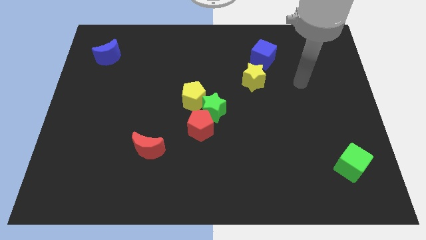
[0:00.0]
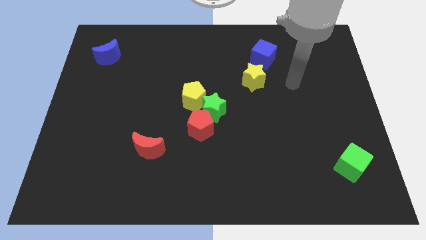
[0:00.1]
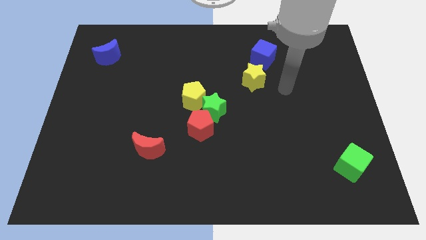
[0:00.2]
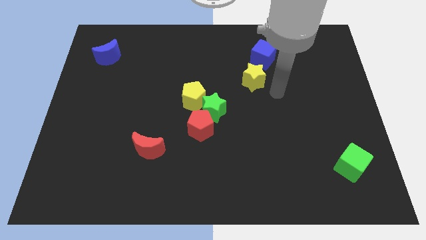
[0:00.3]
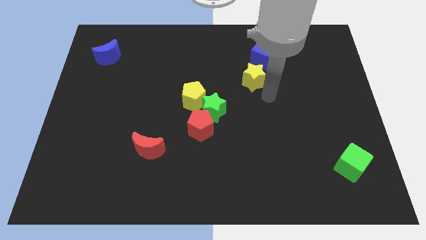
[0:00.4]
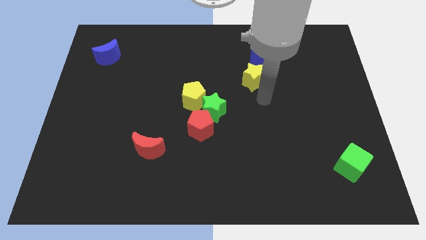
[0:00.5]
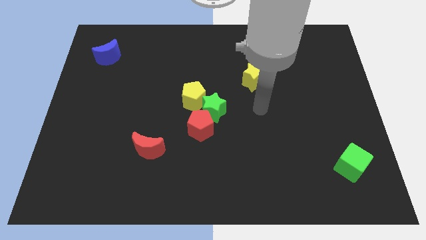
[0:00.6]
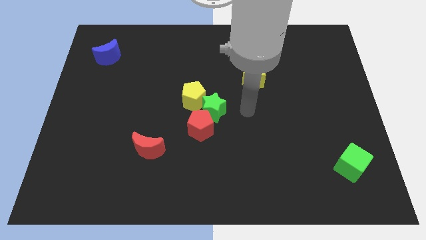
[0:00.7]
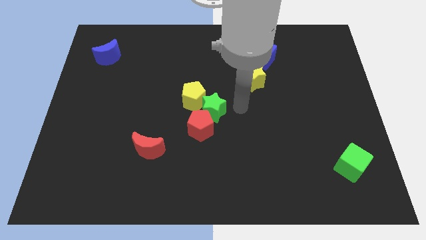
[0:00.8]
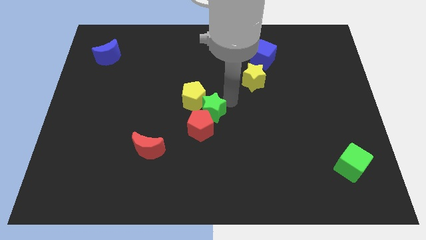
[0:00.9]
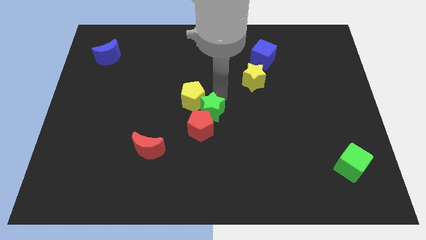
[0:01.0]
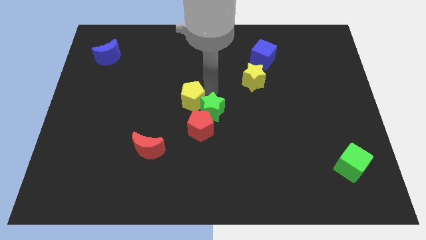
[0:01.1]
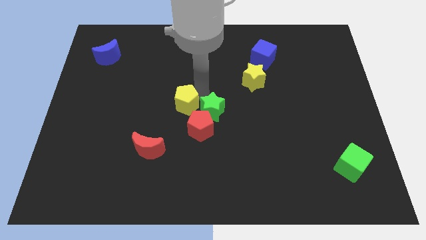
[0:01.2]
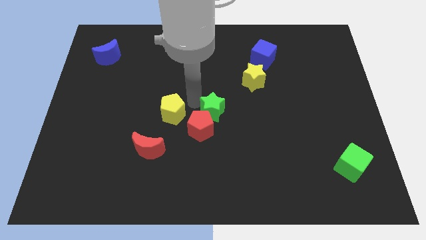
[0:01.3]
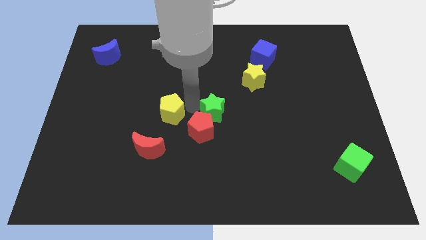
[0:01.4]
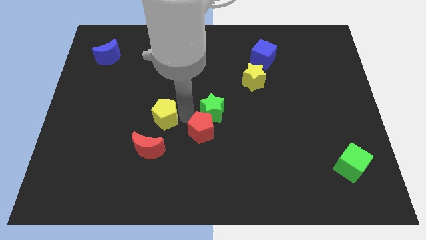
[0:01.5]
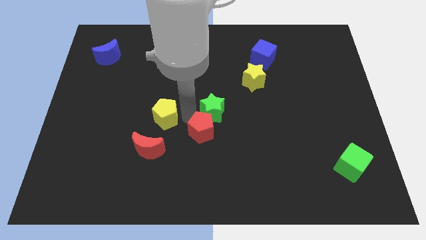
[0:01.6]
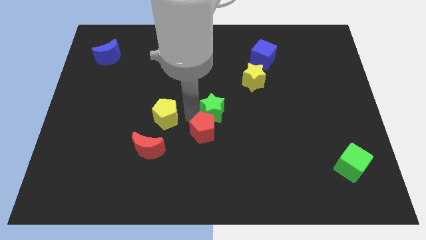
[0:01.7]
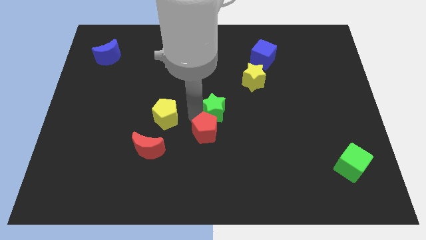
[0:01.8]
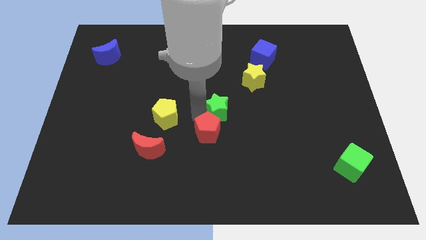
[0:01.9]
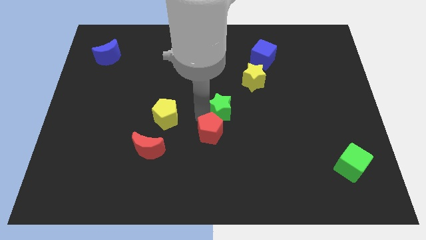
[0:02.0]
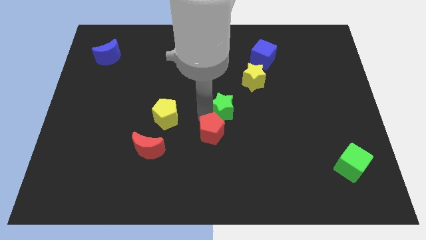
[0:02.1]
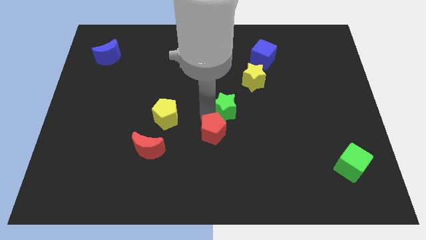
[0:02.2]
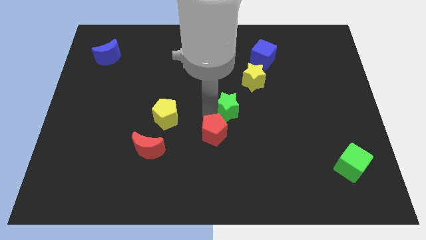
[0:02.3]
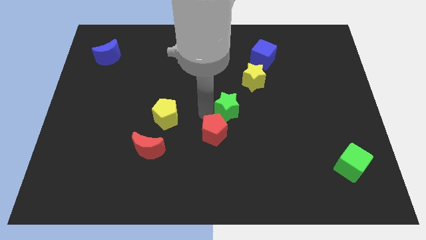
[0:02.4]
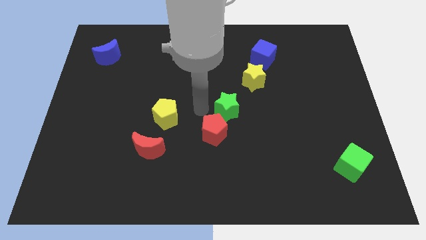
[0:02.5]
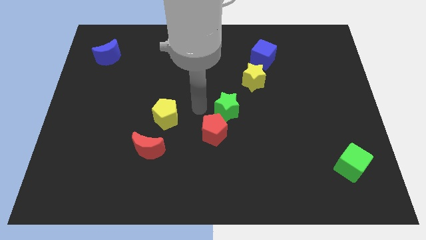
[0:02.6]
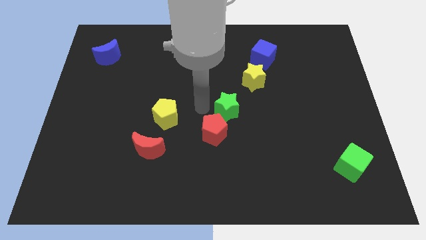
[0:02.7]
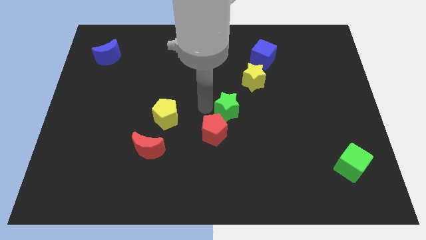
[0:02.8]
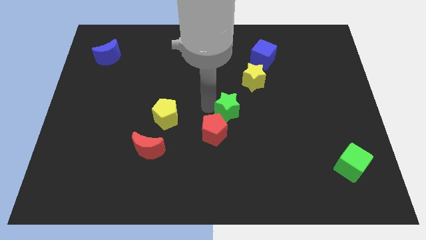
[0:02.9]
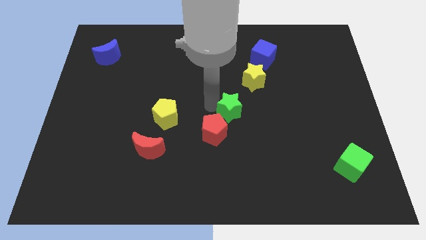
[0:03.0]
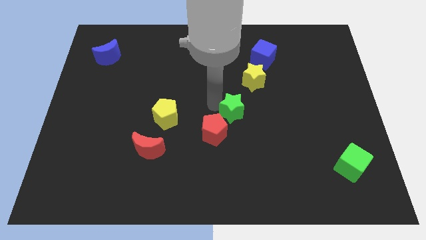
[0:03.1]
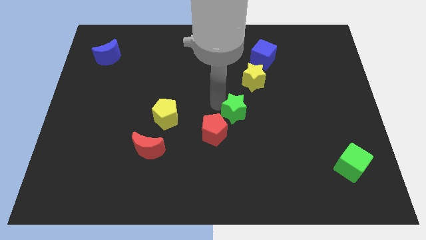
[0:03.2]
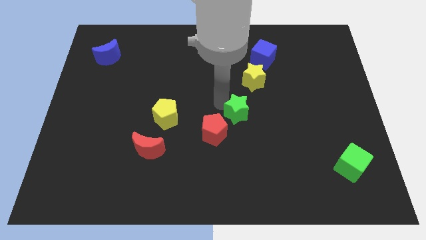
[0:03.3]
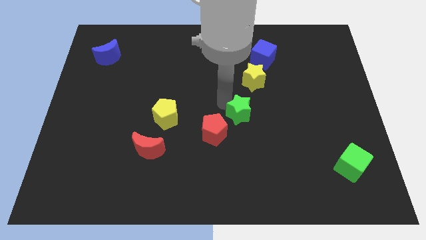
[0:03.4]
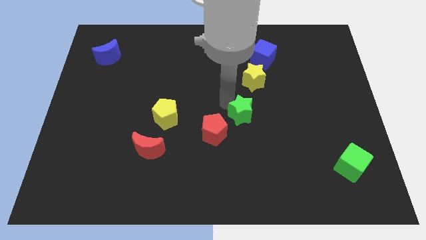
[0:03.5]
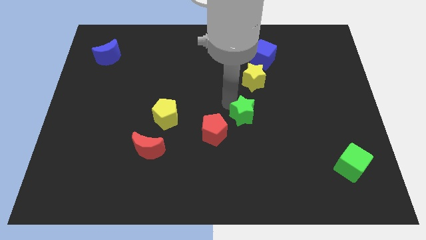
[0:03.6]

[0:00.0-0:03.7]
move the green star a bit right

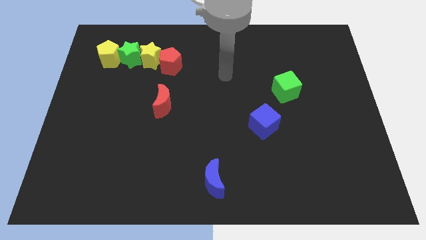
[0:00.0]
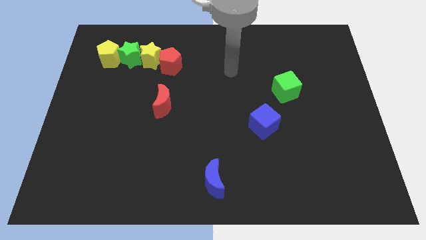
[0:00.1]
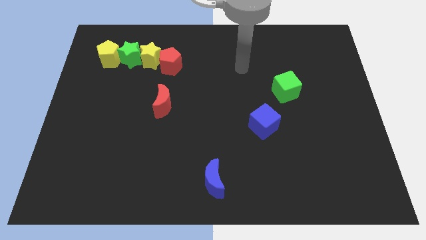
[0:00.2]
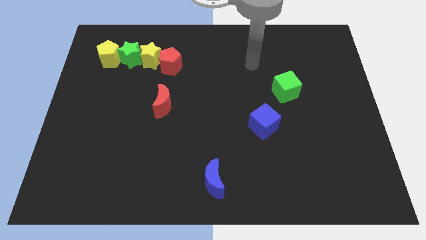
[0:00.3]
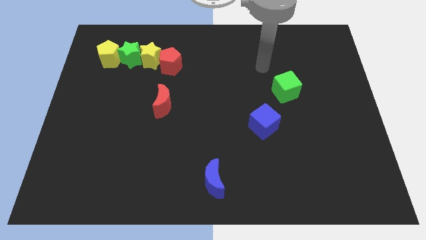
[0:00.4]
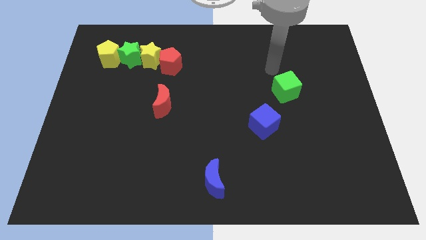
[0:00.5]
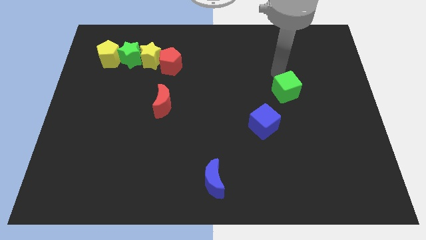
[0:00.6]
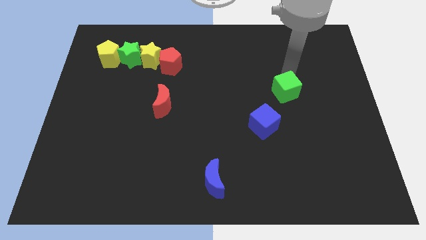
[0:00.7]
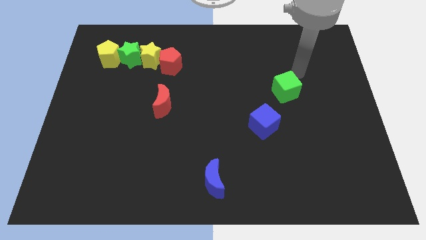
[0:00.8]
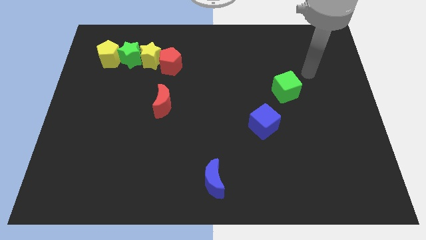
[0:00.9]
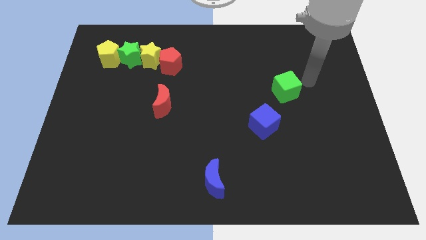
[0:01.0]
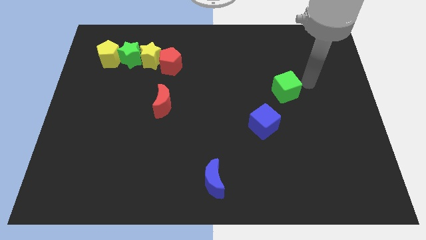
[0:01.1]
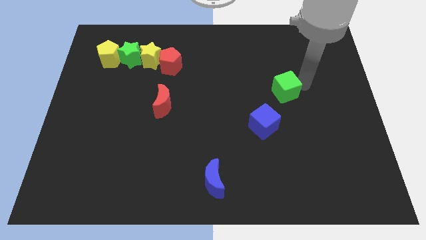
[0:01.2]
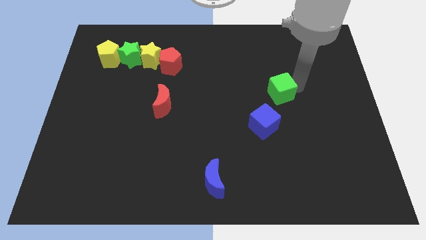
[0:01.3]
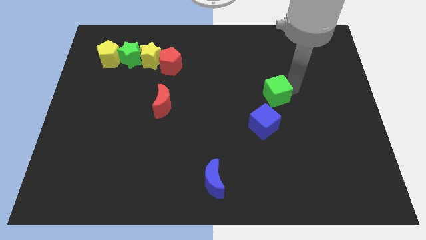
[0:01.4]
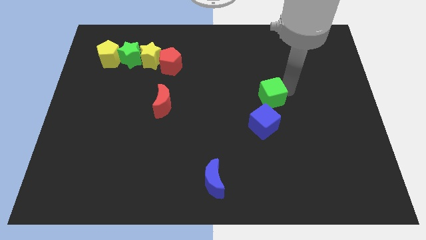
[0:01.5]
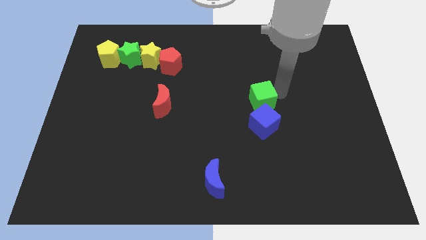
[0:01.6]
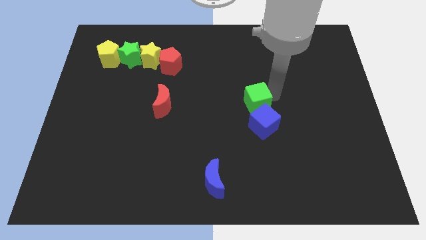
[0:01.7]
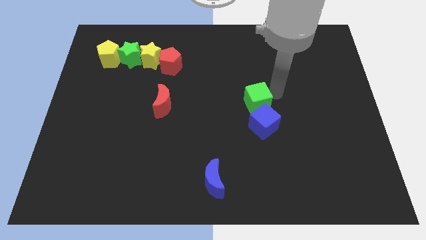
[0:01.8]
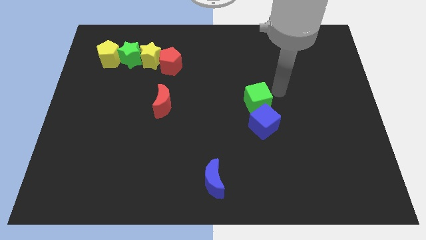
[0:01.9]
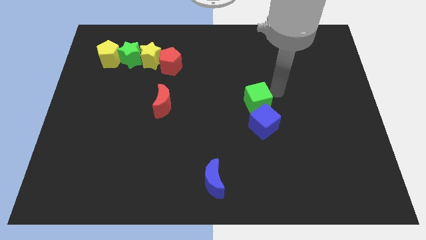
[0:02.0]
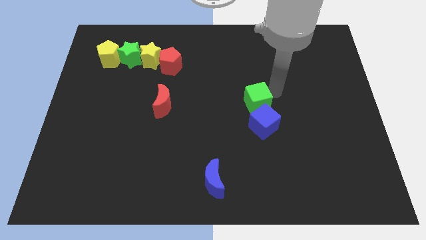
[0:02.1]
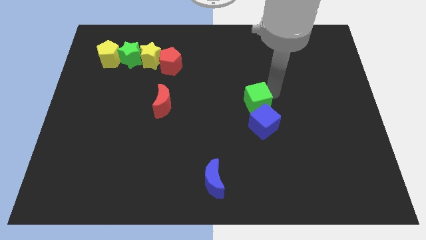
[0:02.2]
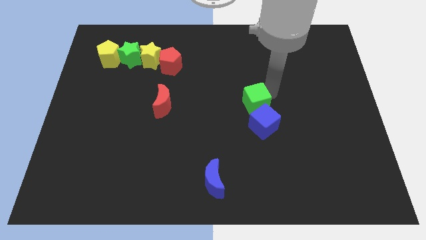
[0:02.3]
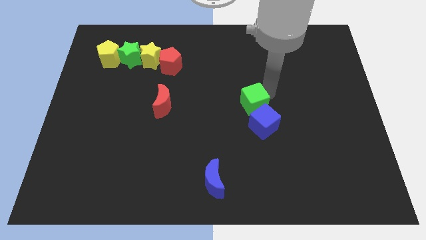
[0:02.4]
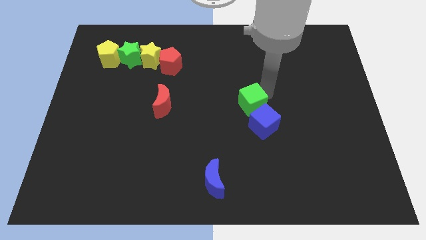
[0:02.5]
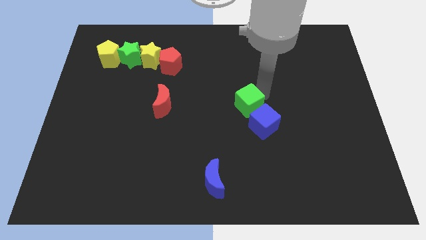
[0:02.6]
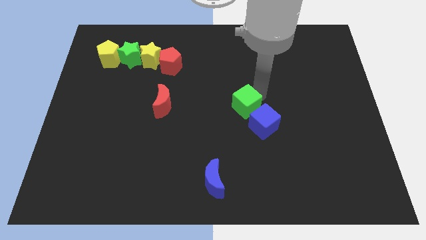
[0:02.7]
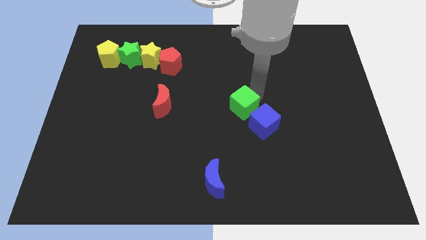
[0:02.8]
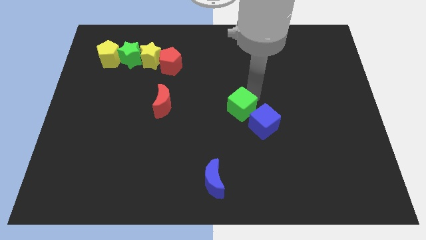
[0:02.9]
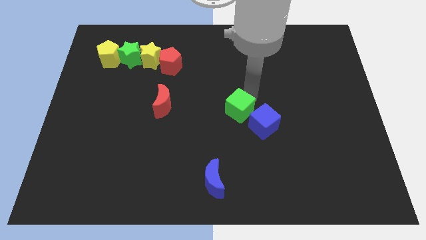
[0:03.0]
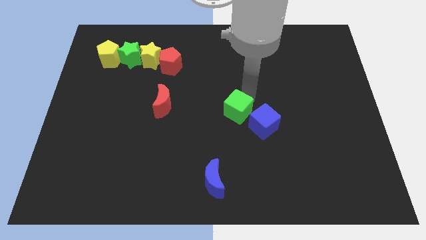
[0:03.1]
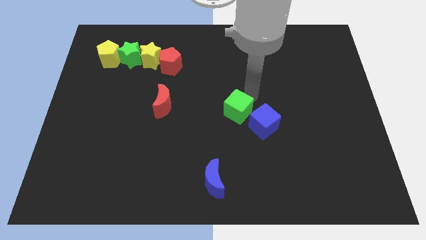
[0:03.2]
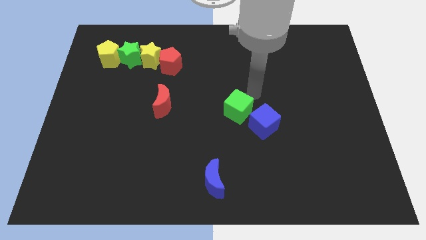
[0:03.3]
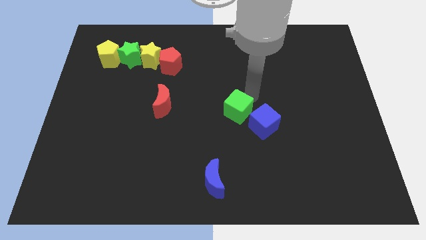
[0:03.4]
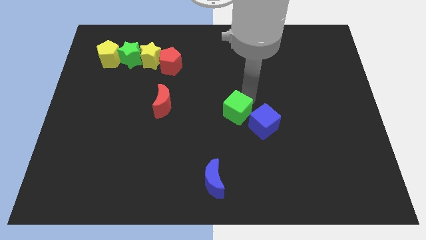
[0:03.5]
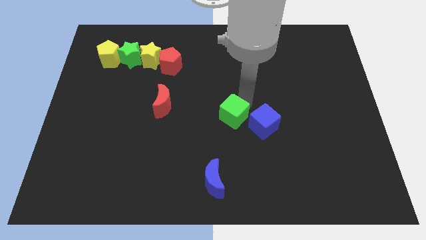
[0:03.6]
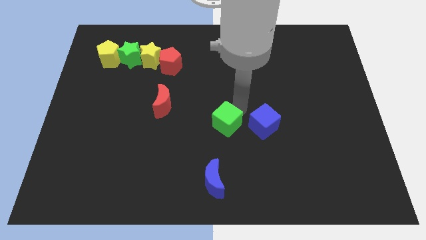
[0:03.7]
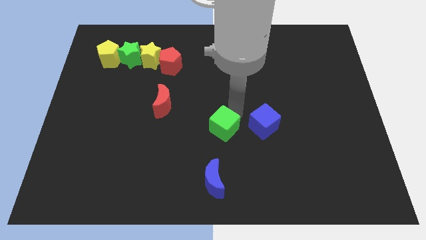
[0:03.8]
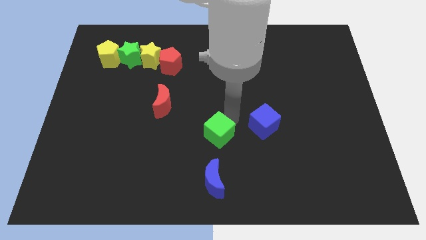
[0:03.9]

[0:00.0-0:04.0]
push the green cube downwards and then left
